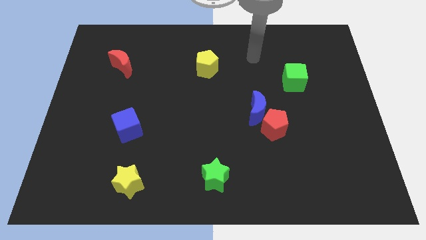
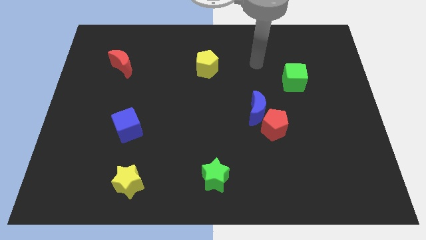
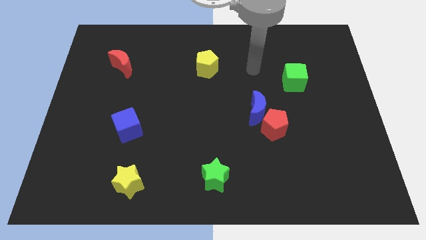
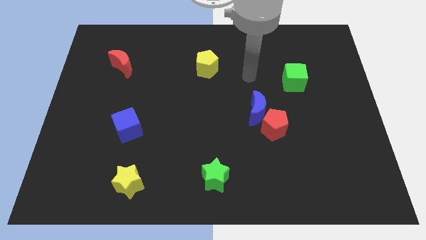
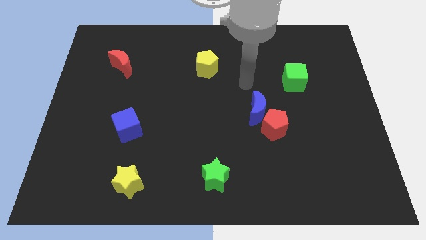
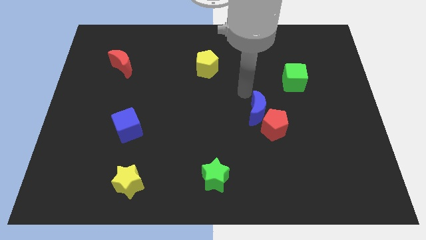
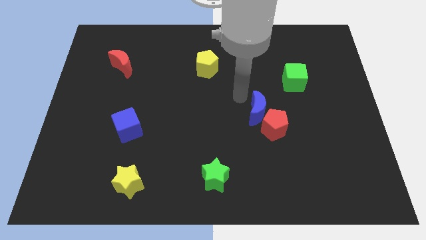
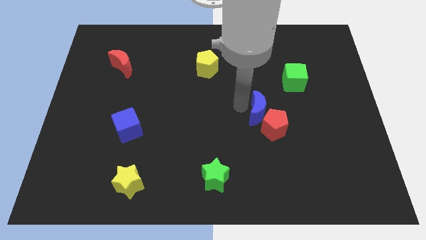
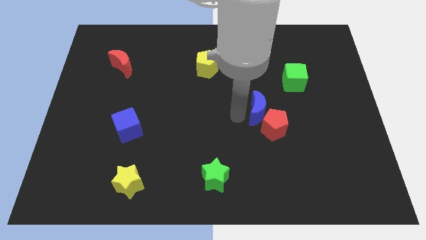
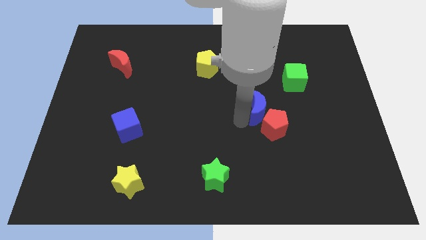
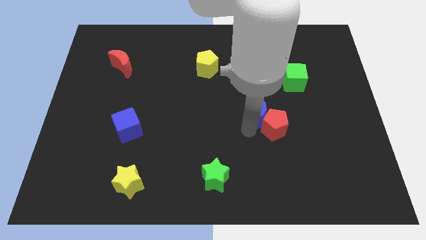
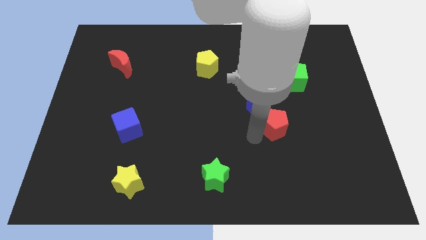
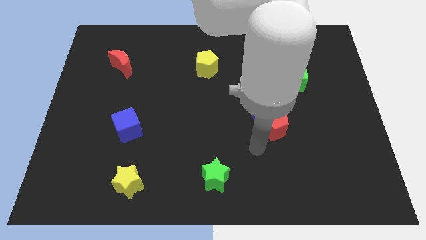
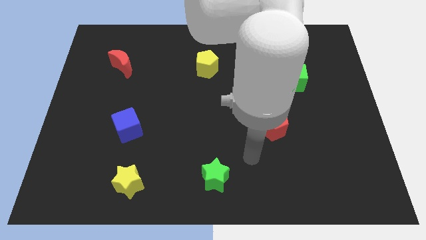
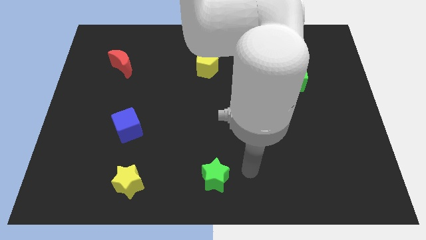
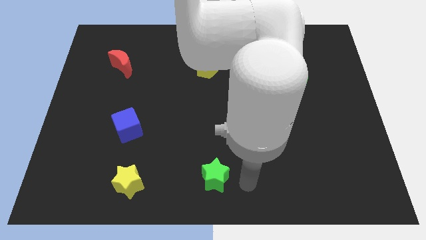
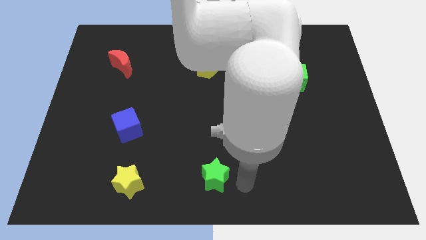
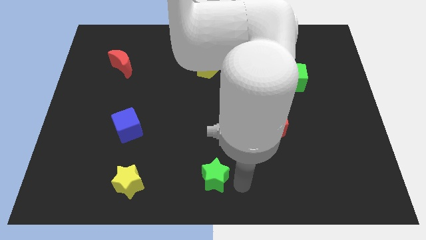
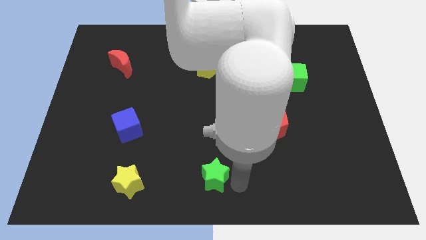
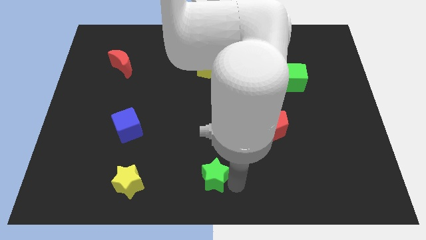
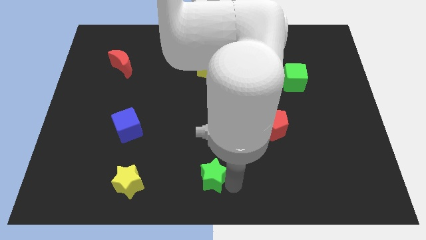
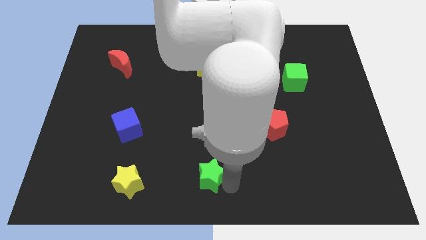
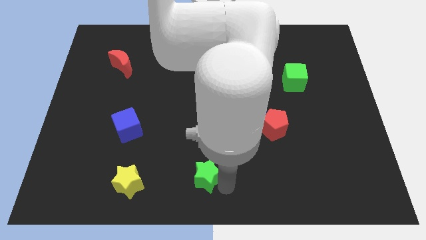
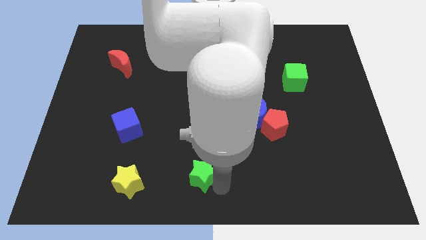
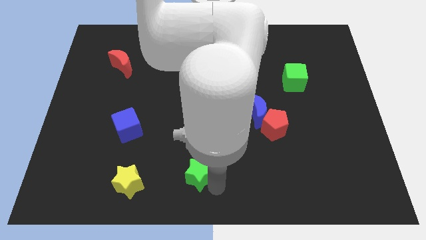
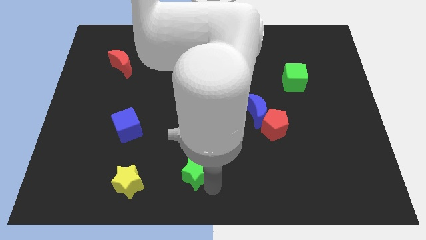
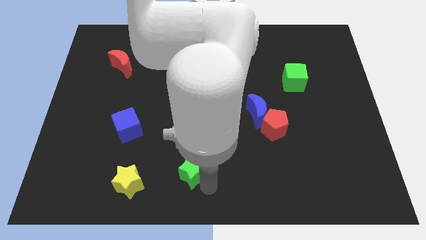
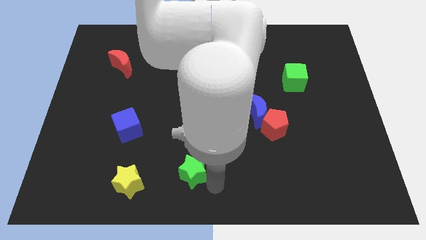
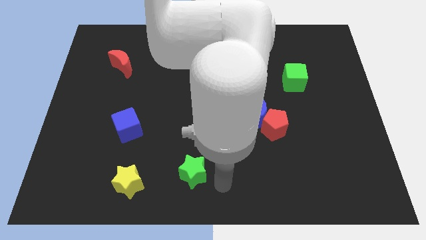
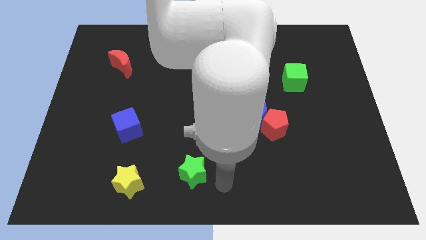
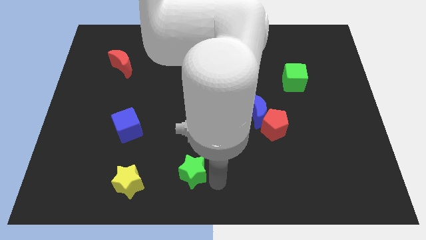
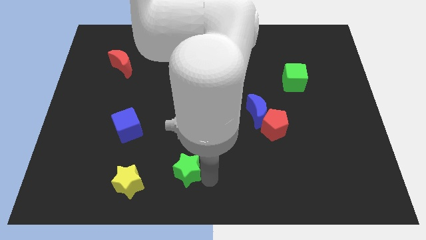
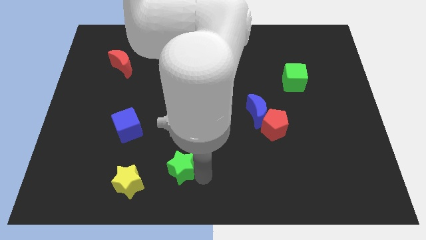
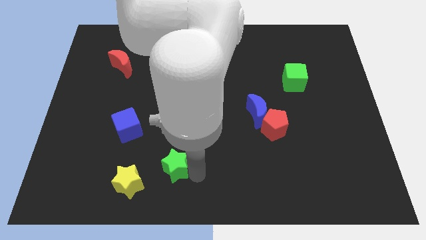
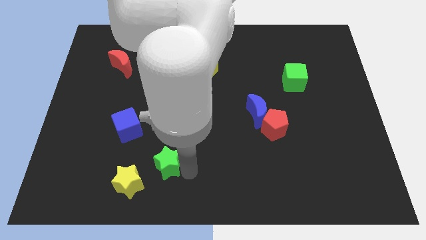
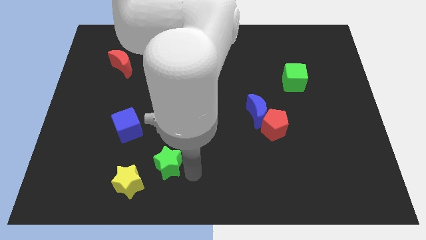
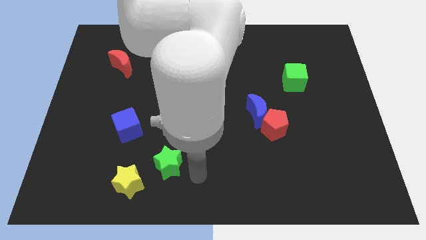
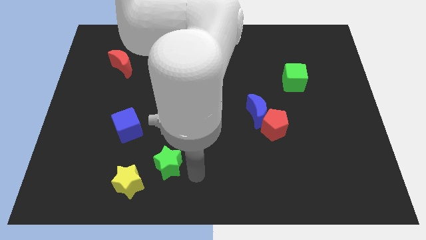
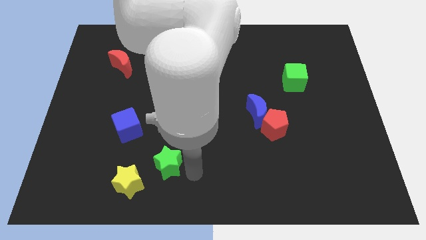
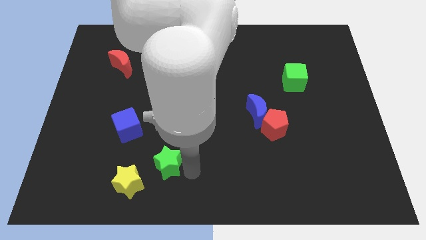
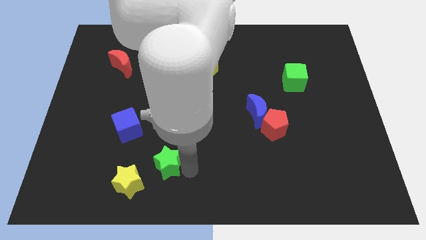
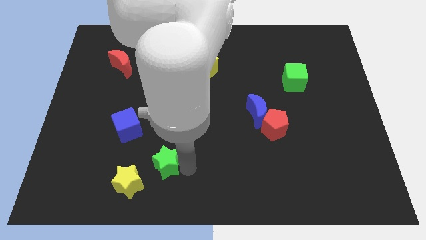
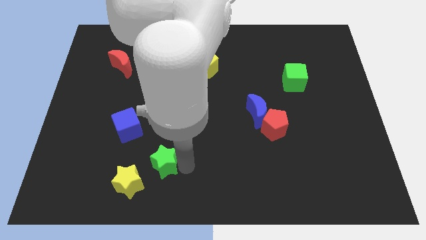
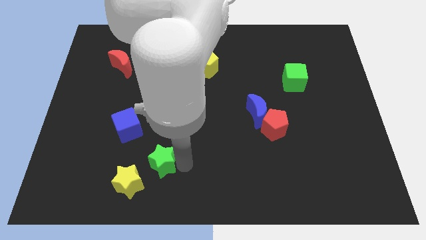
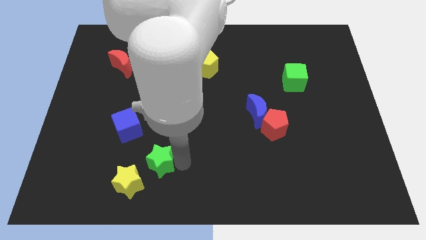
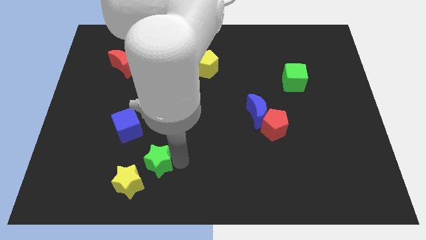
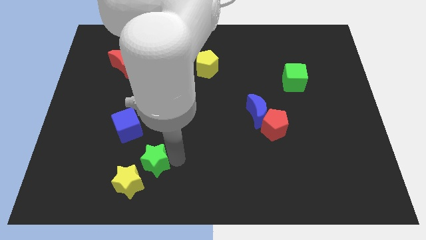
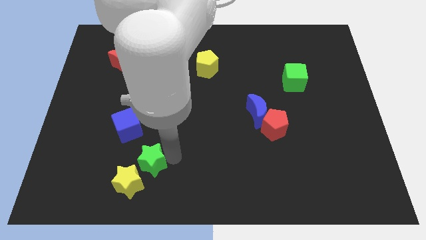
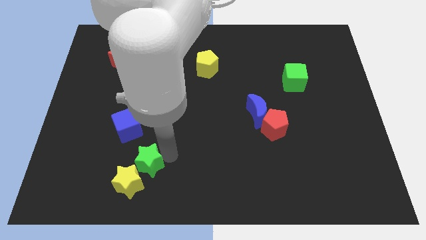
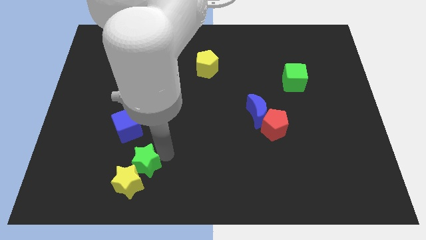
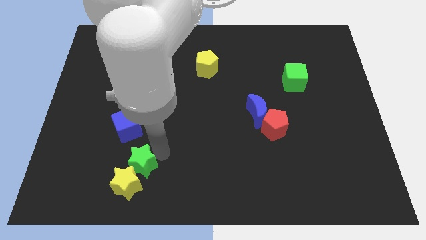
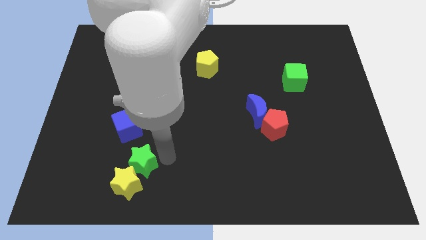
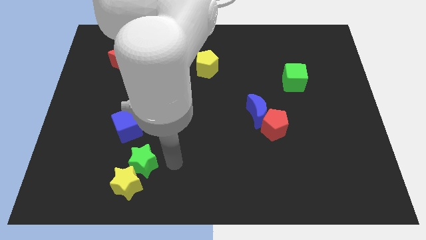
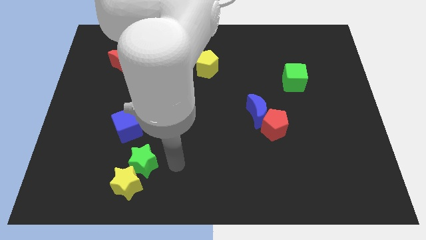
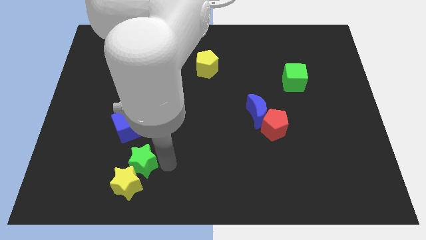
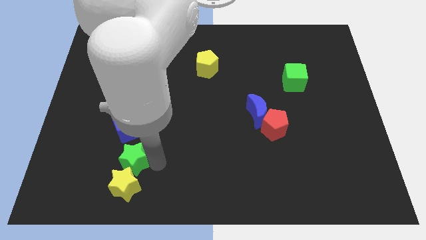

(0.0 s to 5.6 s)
move the green star to the top left side of the yellow star

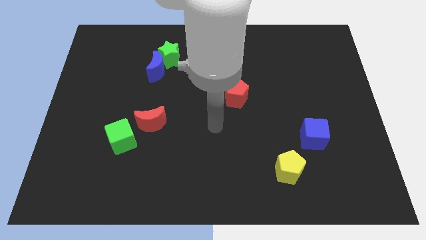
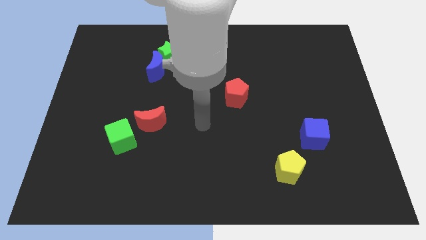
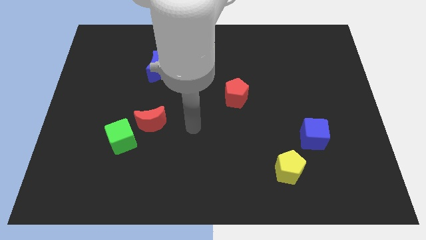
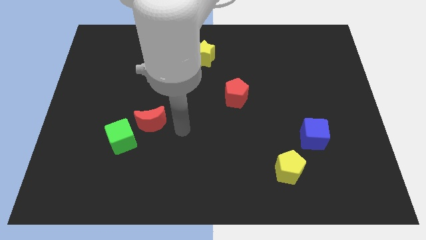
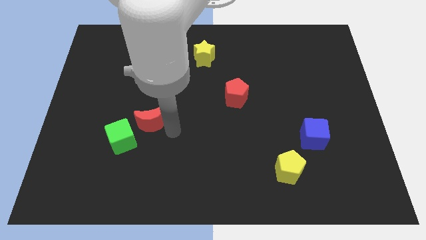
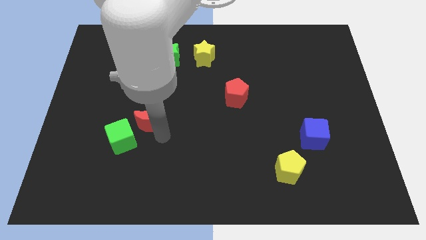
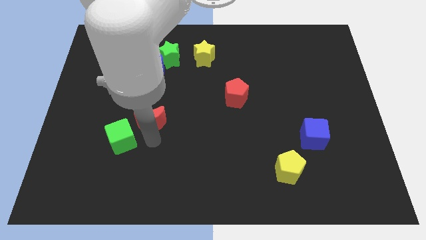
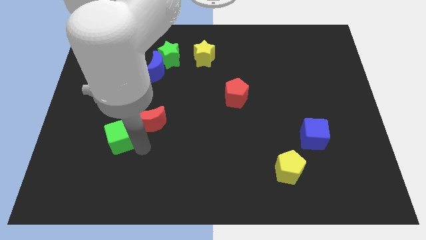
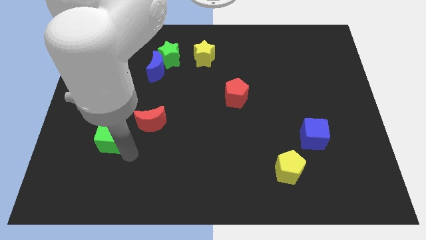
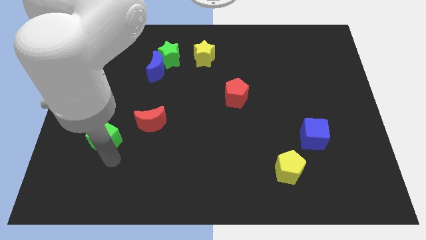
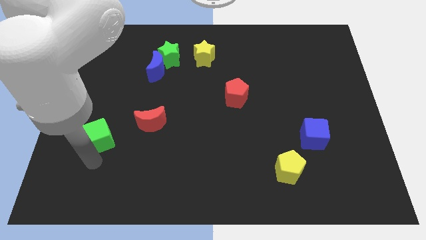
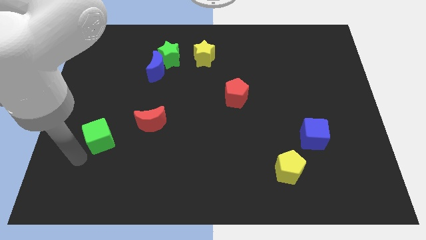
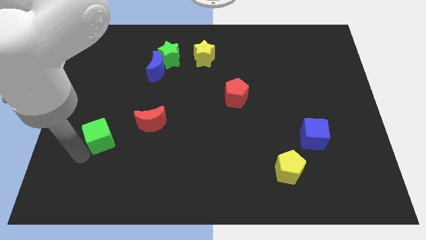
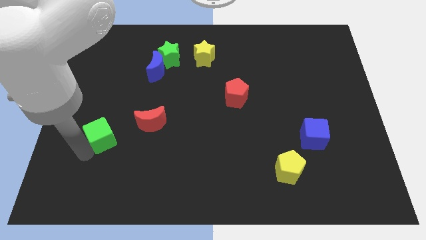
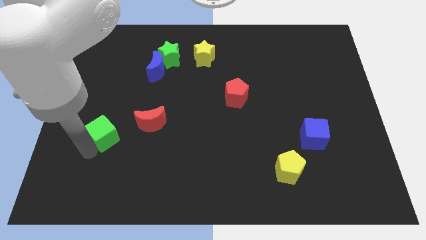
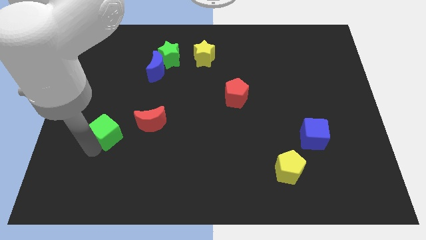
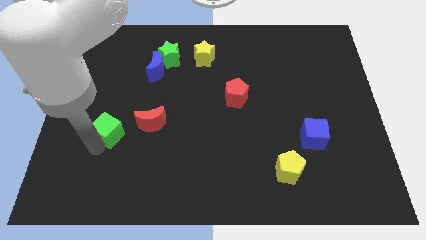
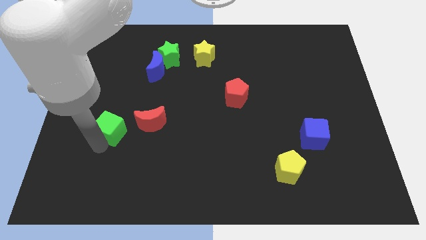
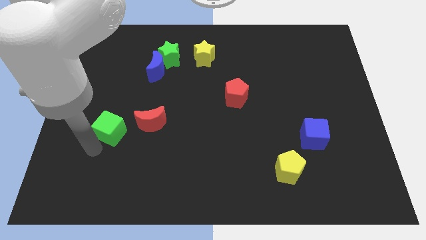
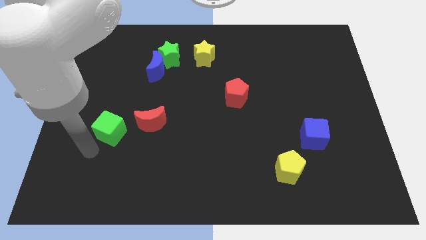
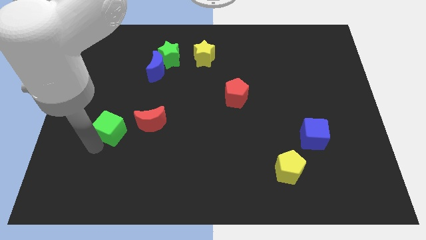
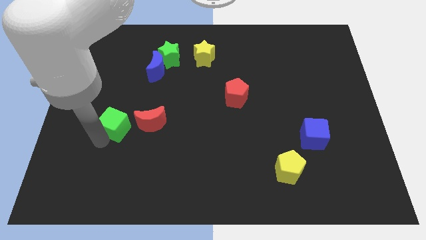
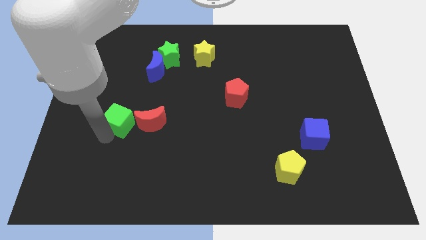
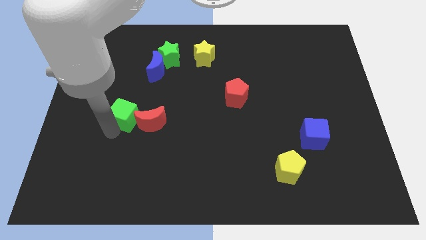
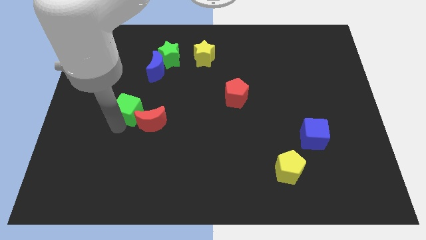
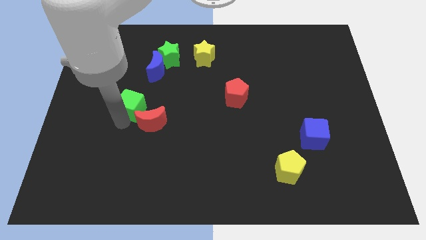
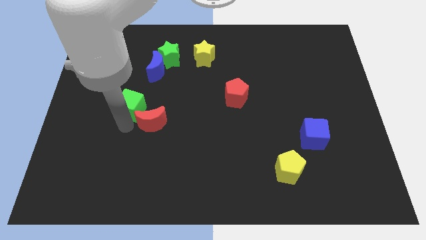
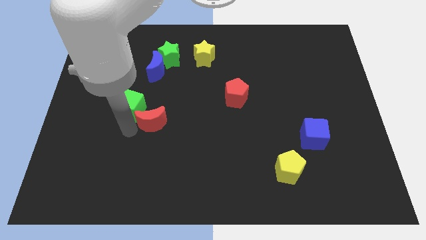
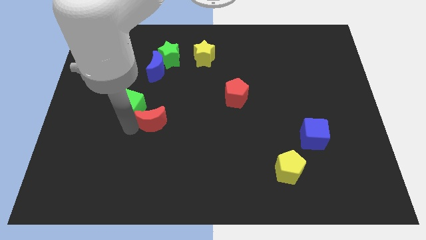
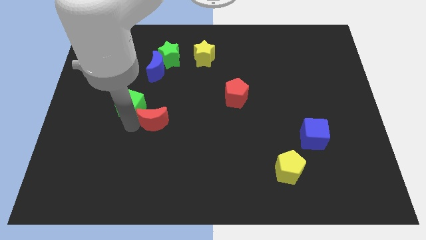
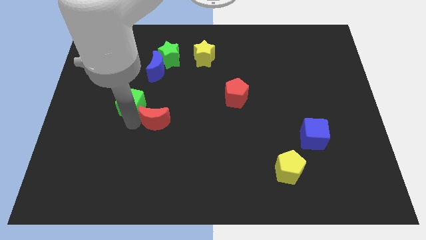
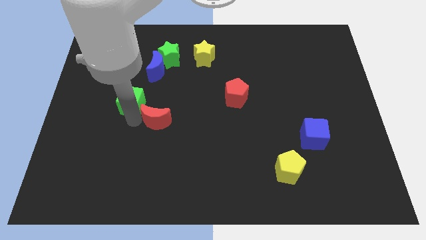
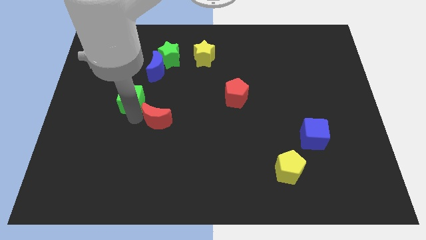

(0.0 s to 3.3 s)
put the green cube to the bottom left of the blue moon
